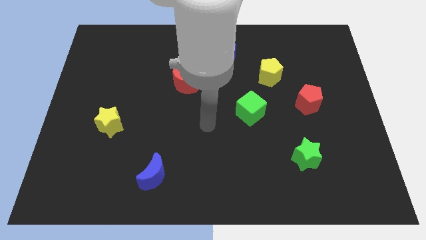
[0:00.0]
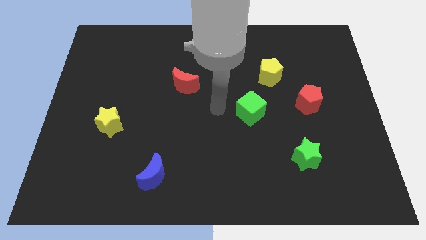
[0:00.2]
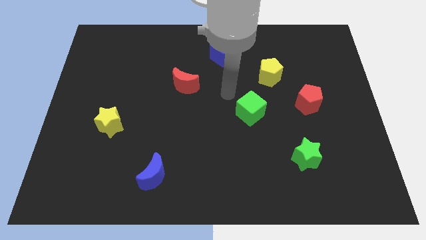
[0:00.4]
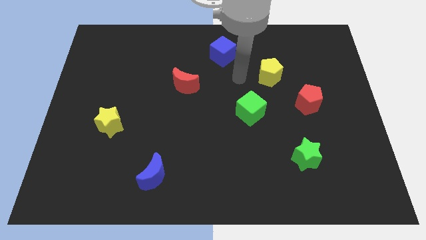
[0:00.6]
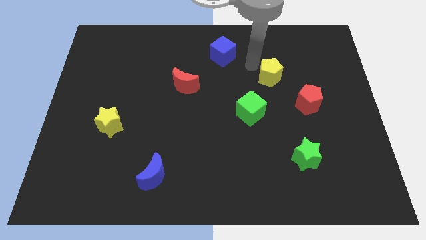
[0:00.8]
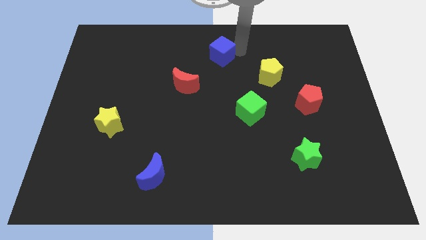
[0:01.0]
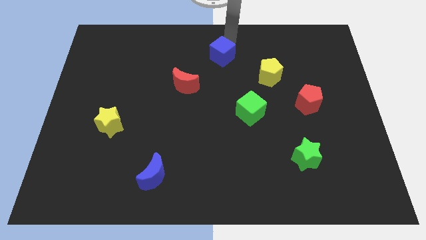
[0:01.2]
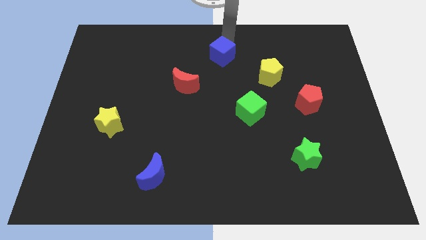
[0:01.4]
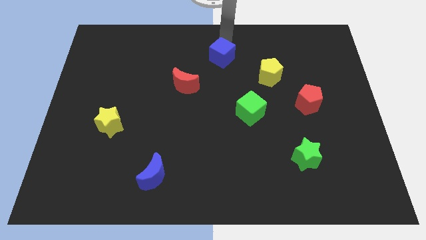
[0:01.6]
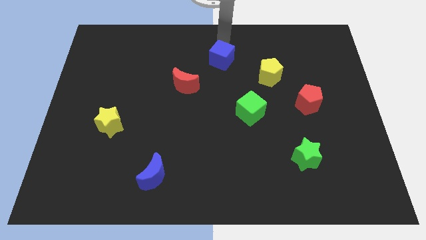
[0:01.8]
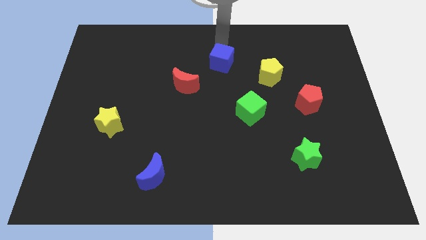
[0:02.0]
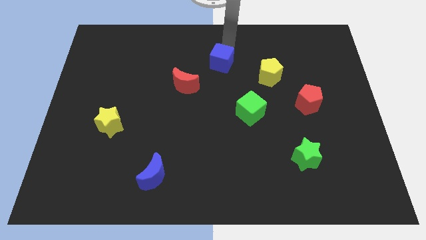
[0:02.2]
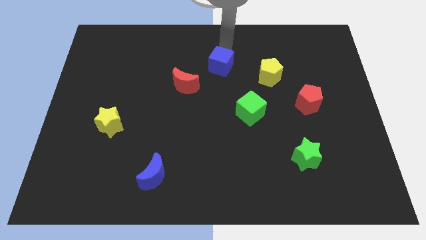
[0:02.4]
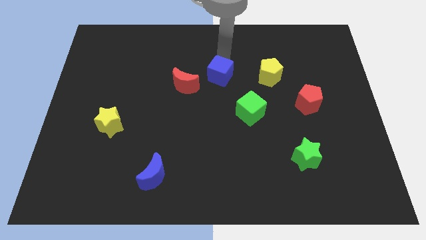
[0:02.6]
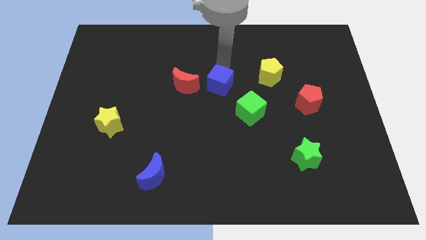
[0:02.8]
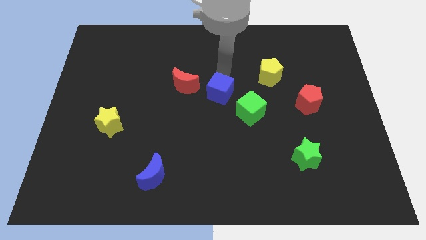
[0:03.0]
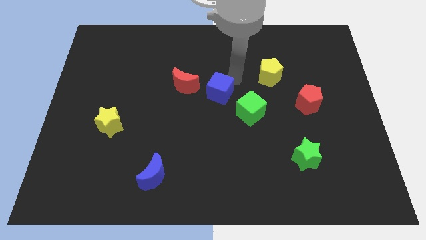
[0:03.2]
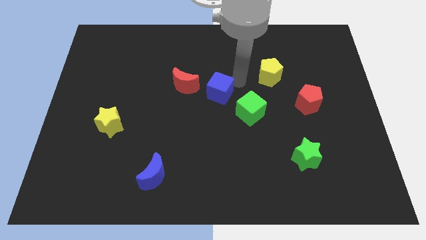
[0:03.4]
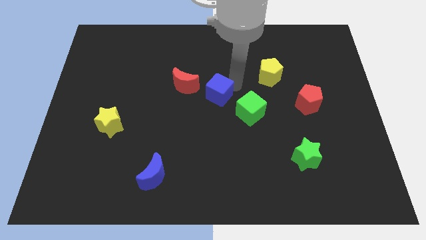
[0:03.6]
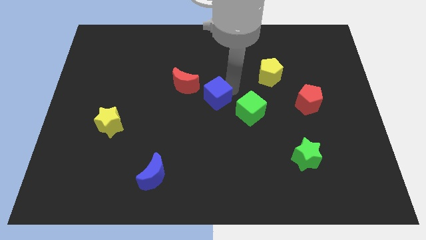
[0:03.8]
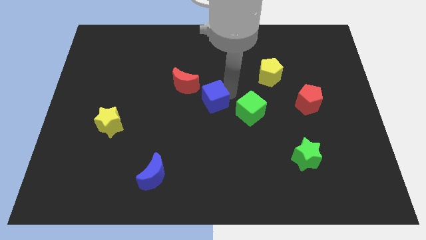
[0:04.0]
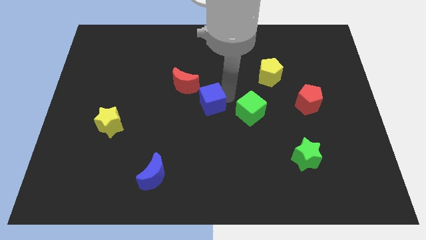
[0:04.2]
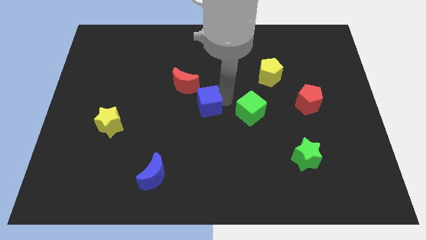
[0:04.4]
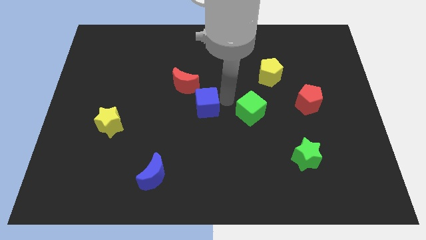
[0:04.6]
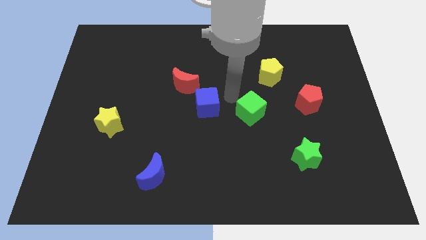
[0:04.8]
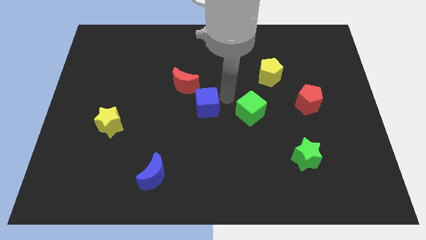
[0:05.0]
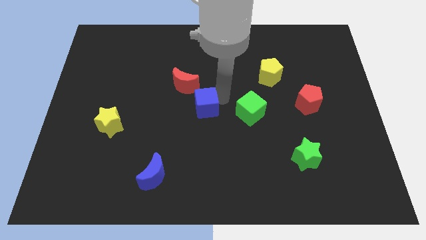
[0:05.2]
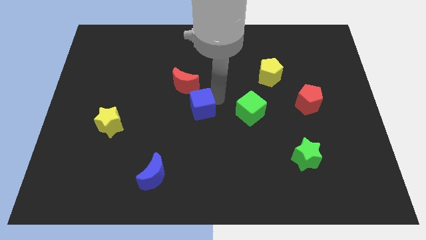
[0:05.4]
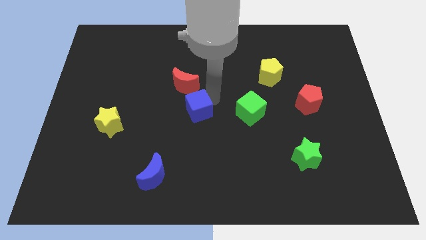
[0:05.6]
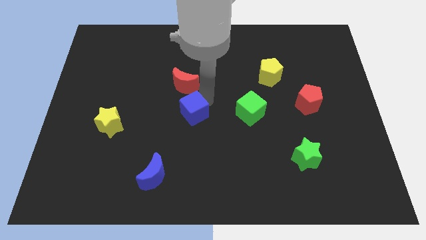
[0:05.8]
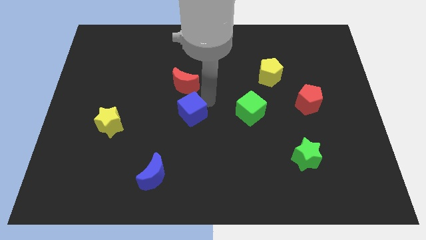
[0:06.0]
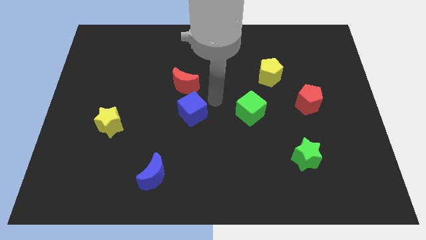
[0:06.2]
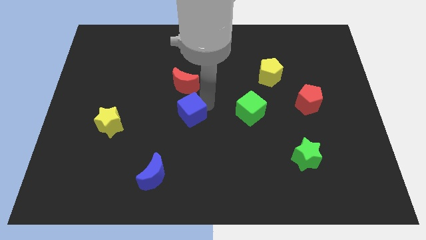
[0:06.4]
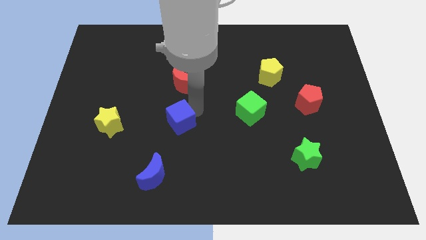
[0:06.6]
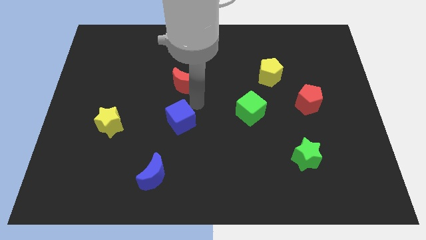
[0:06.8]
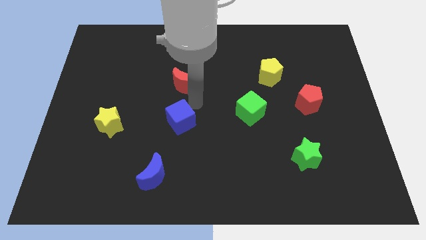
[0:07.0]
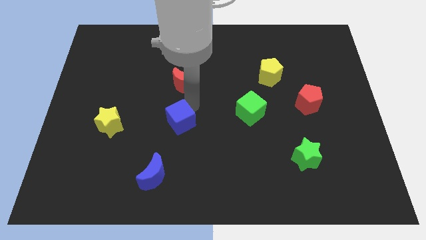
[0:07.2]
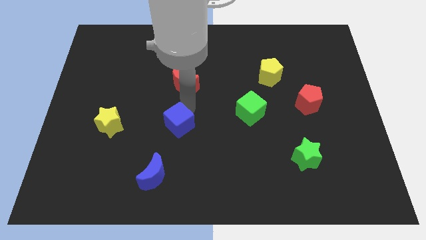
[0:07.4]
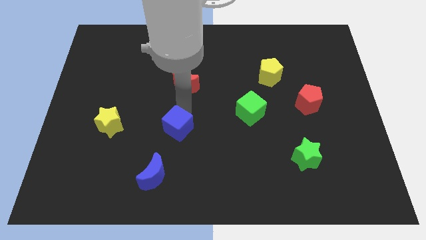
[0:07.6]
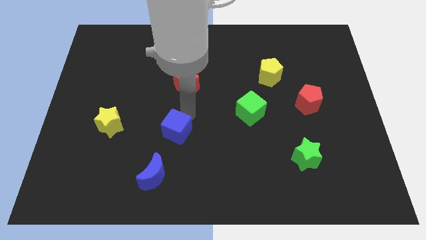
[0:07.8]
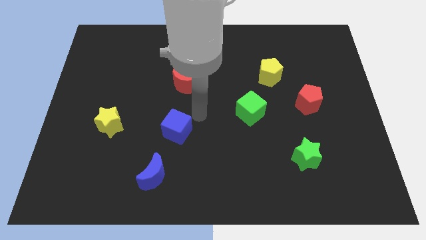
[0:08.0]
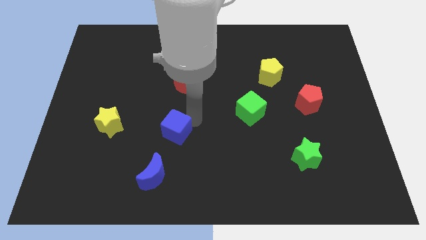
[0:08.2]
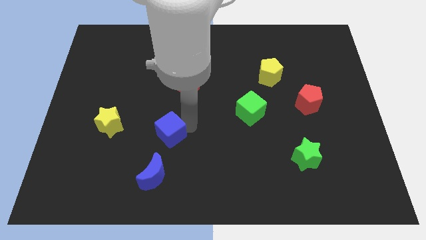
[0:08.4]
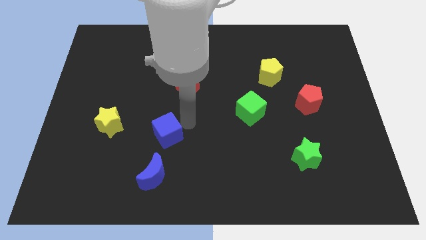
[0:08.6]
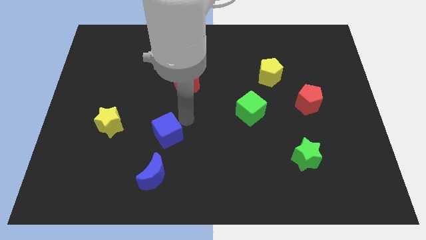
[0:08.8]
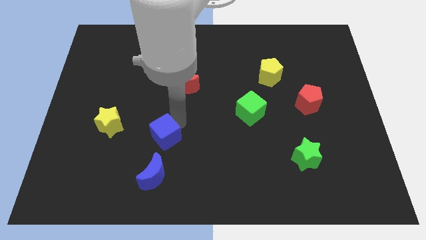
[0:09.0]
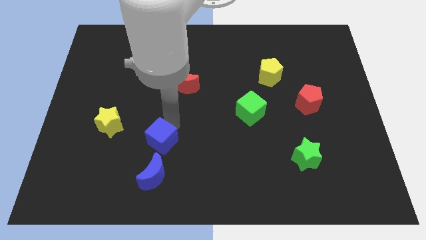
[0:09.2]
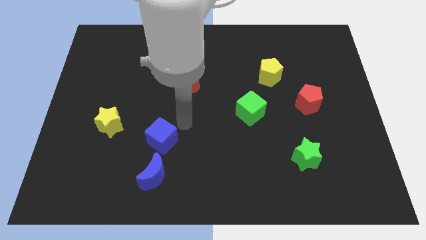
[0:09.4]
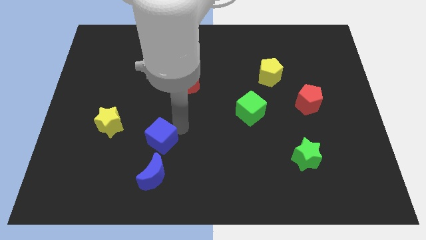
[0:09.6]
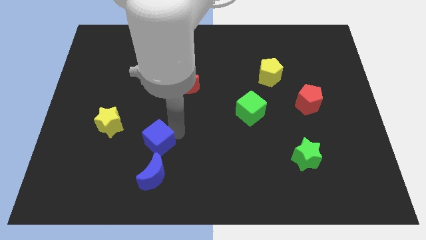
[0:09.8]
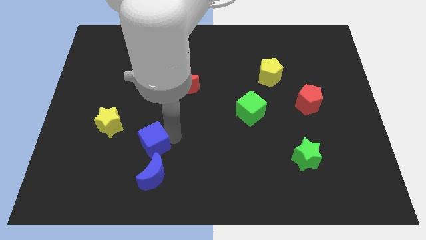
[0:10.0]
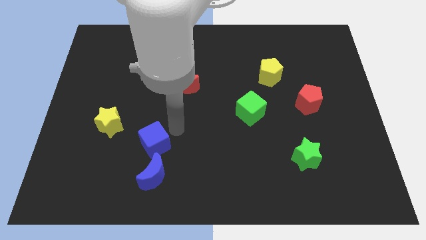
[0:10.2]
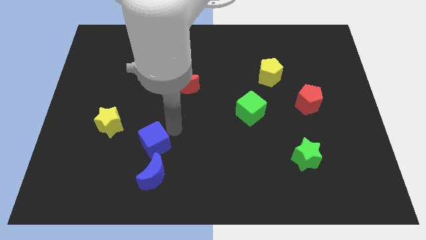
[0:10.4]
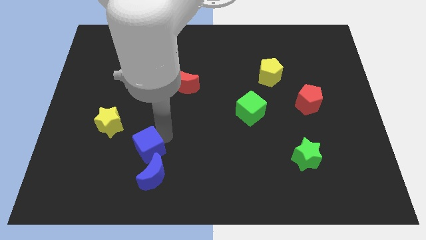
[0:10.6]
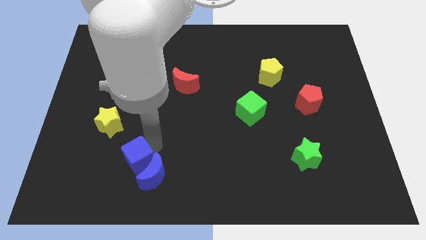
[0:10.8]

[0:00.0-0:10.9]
put the blue cube to the left of the blue moon

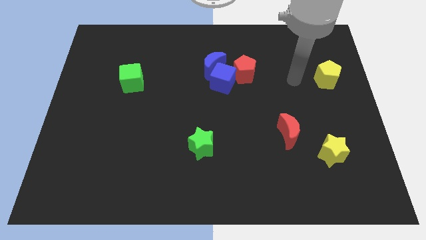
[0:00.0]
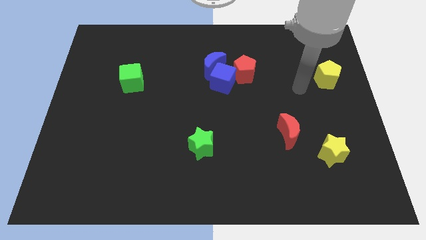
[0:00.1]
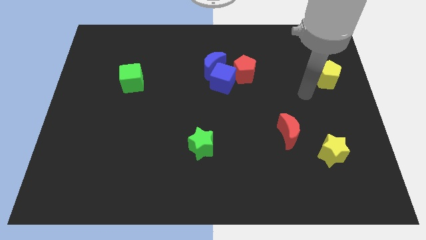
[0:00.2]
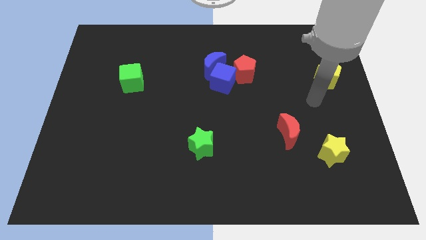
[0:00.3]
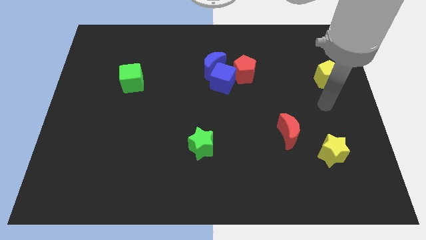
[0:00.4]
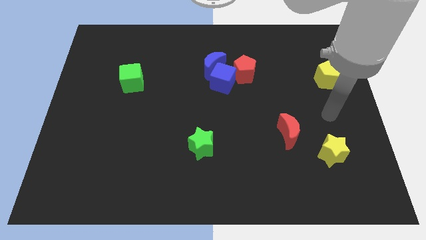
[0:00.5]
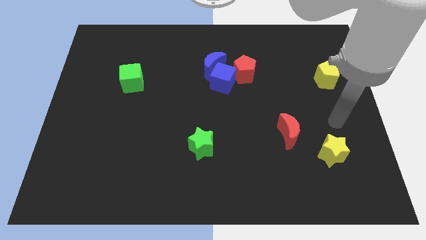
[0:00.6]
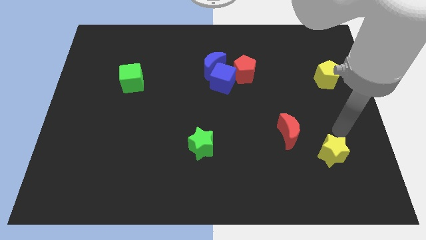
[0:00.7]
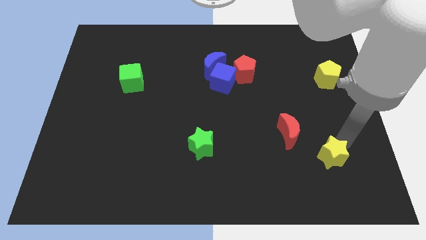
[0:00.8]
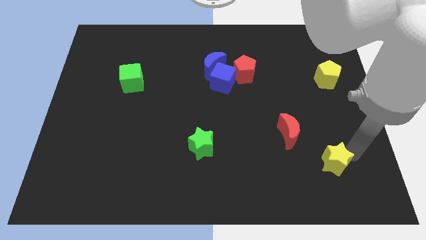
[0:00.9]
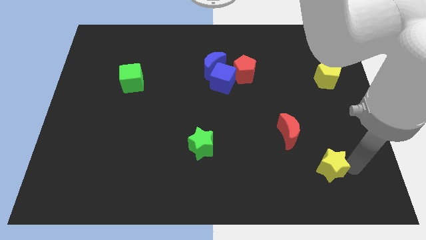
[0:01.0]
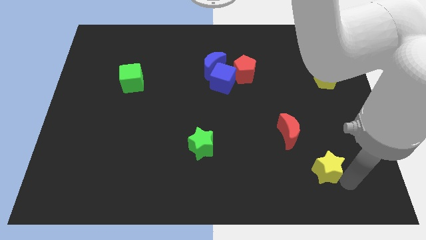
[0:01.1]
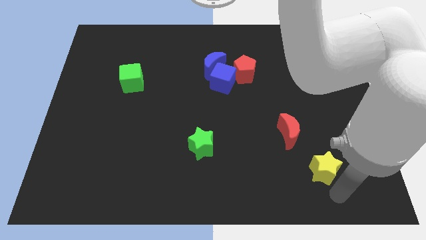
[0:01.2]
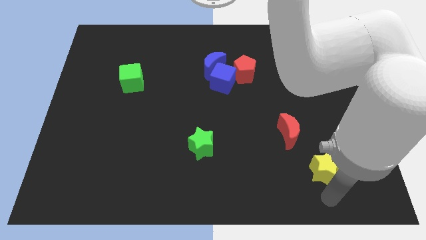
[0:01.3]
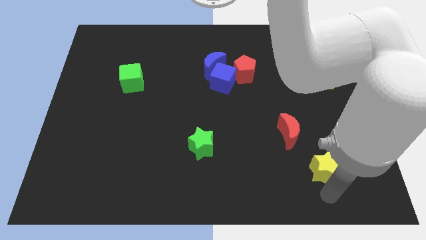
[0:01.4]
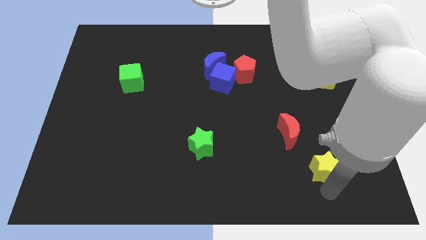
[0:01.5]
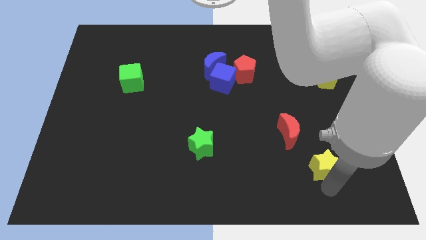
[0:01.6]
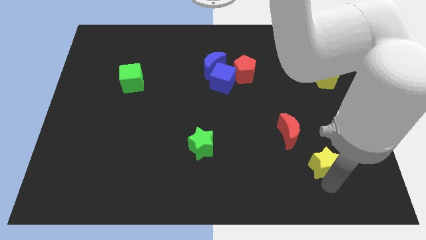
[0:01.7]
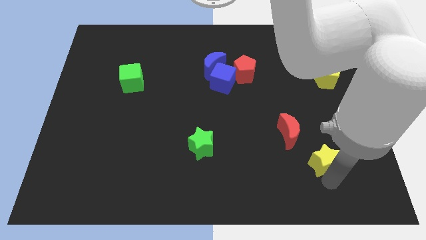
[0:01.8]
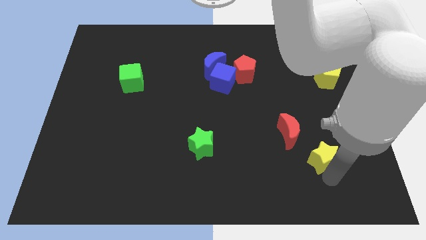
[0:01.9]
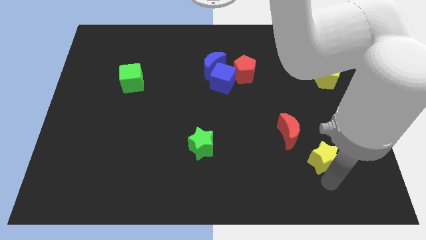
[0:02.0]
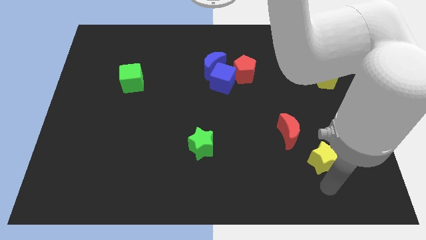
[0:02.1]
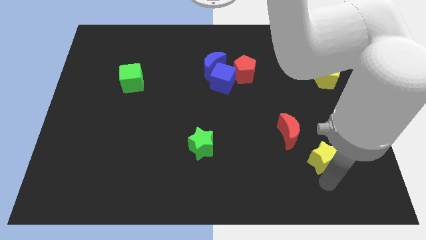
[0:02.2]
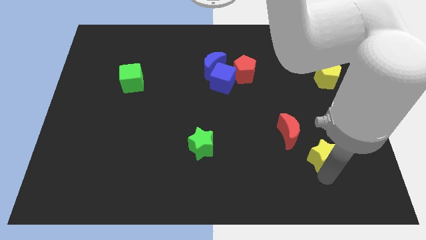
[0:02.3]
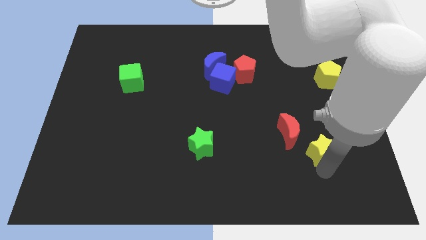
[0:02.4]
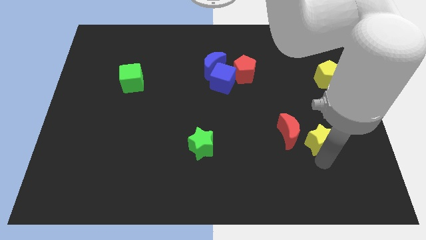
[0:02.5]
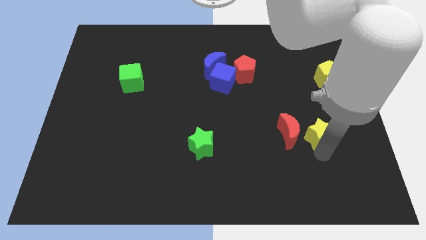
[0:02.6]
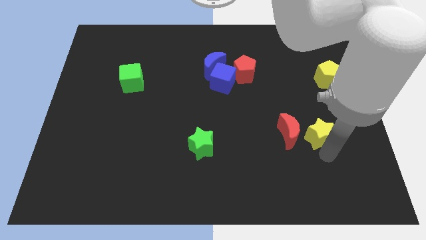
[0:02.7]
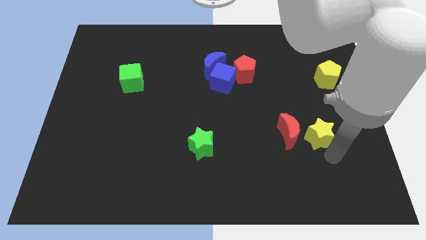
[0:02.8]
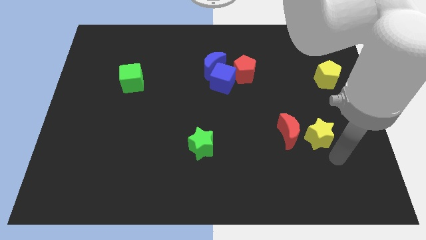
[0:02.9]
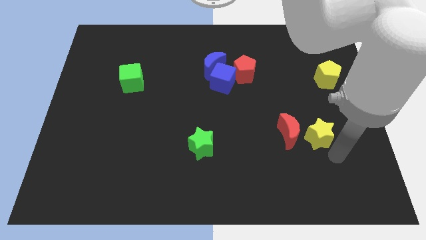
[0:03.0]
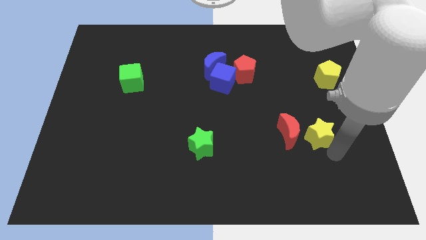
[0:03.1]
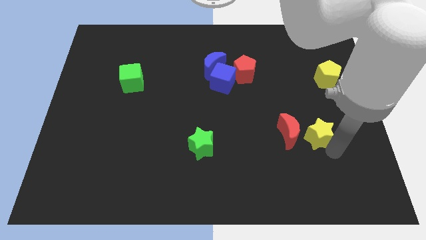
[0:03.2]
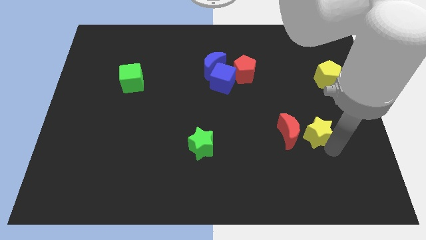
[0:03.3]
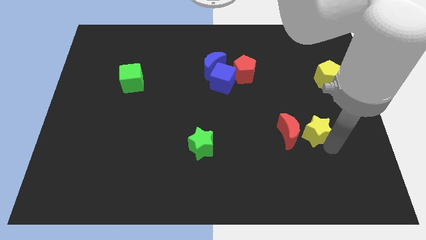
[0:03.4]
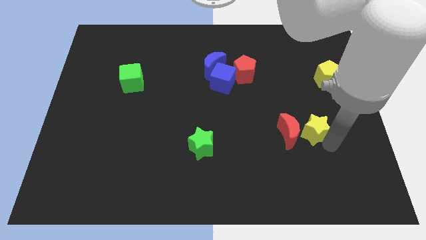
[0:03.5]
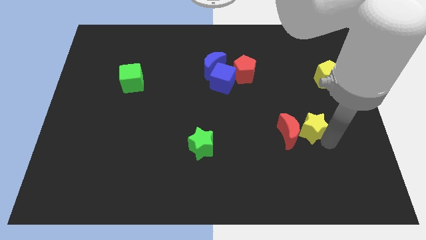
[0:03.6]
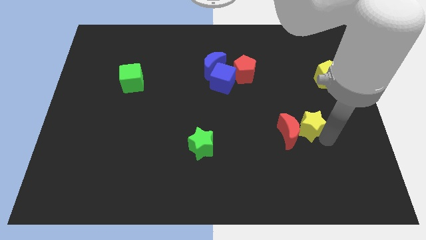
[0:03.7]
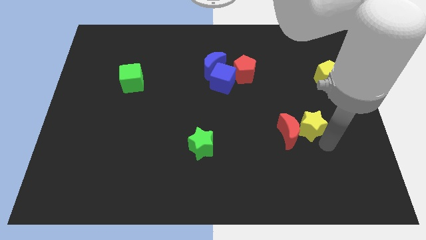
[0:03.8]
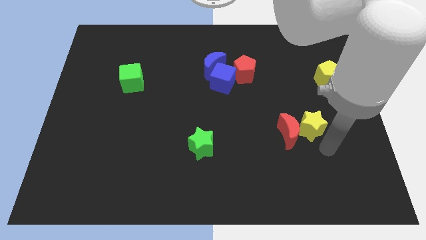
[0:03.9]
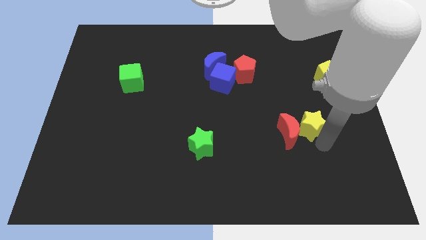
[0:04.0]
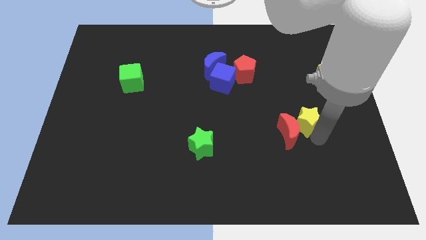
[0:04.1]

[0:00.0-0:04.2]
put the yellow star to the top side of the red moon
